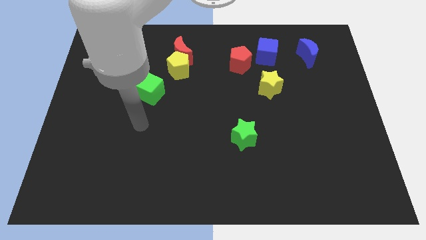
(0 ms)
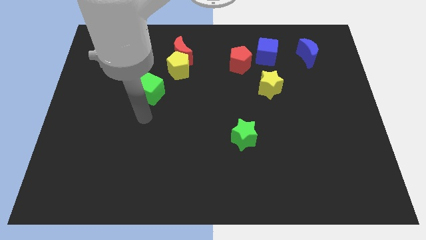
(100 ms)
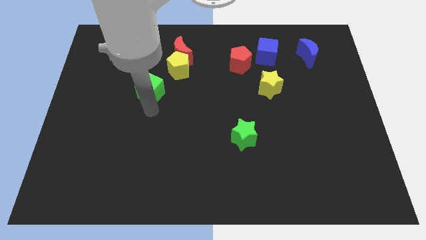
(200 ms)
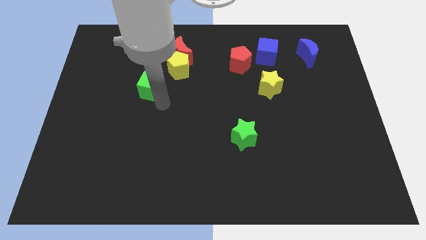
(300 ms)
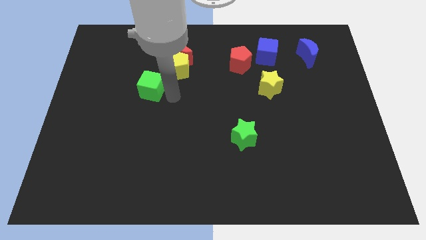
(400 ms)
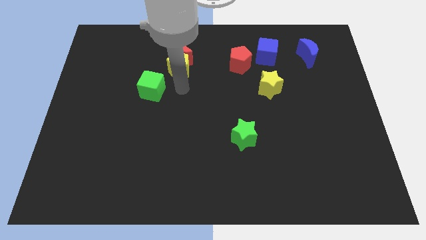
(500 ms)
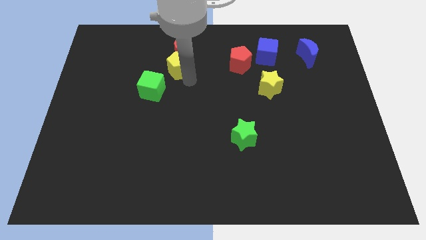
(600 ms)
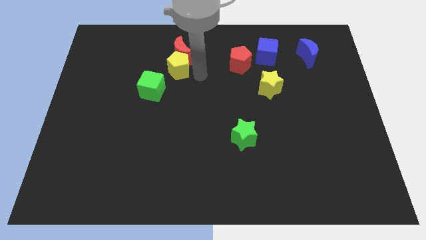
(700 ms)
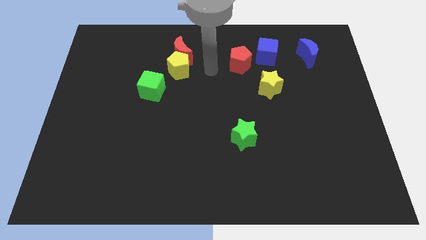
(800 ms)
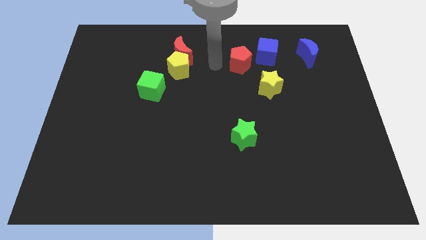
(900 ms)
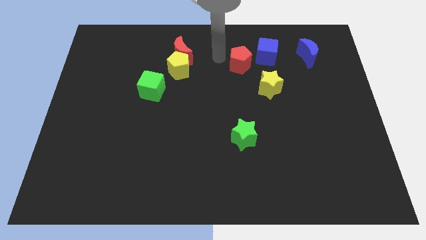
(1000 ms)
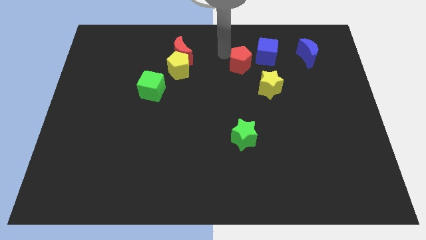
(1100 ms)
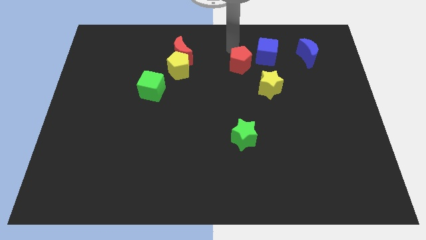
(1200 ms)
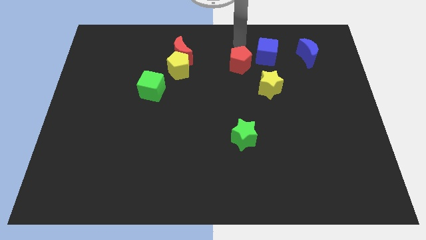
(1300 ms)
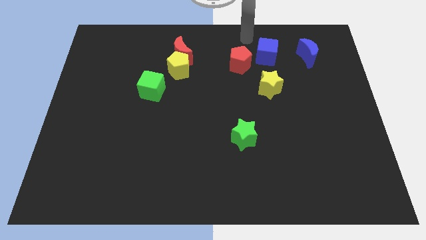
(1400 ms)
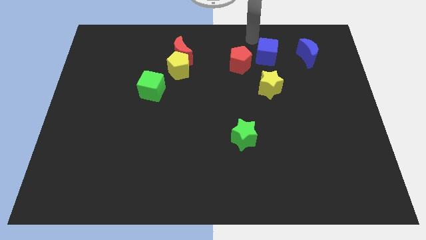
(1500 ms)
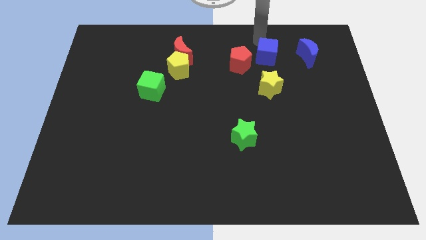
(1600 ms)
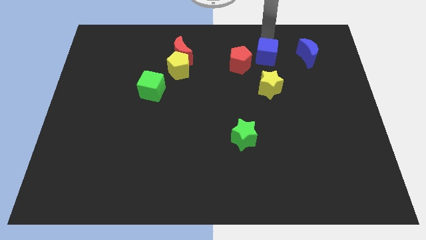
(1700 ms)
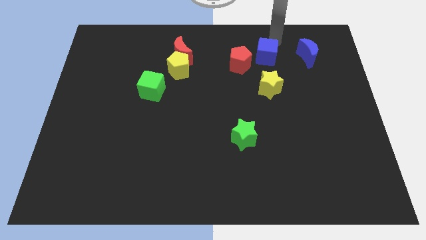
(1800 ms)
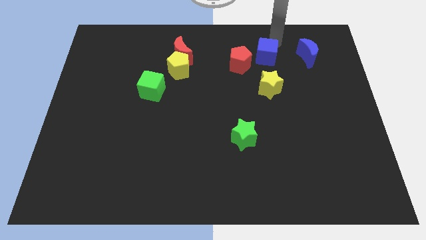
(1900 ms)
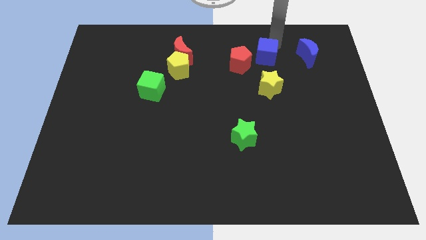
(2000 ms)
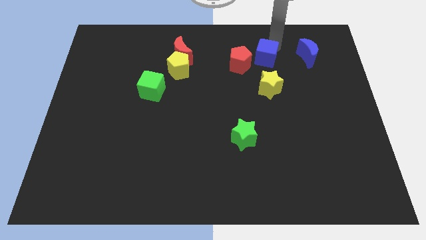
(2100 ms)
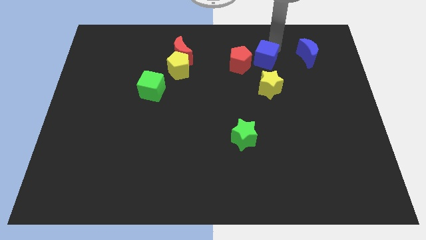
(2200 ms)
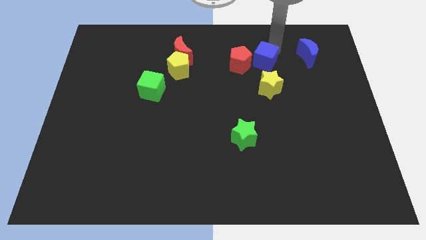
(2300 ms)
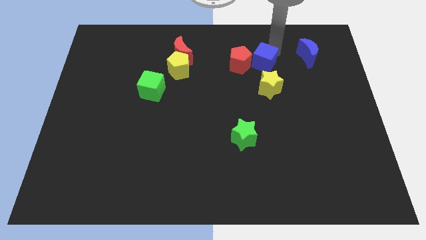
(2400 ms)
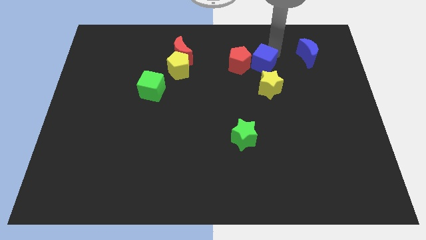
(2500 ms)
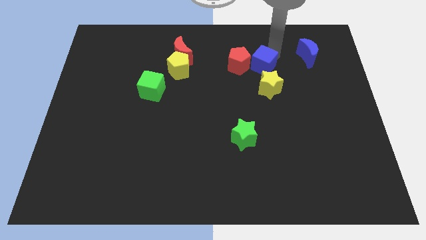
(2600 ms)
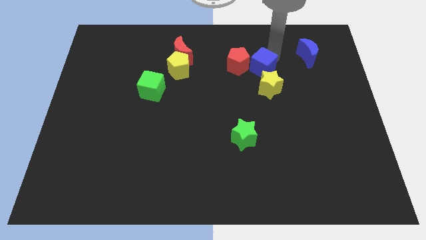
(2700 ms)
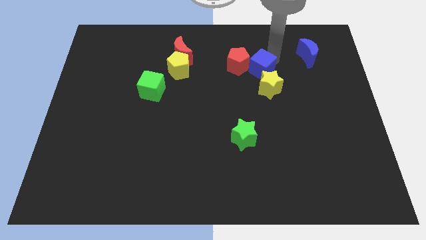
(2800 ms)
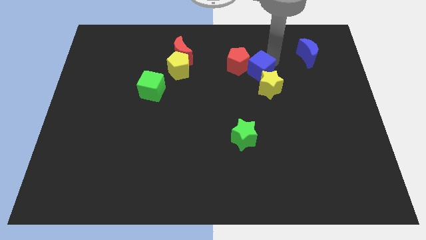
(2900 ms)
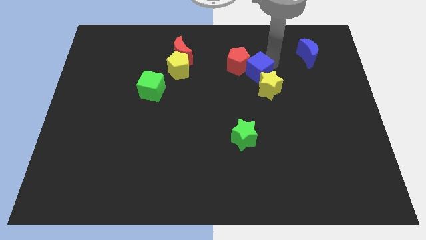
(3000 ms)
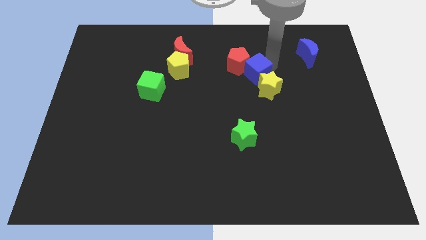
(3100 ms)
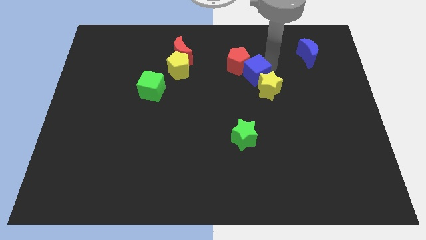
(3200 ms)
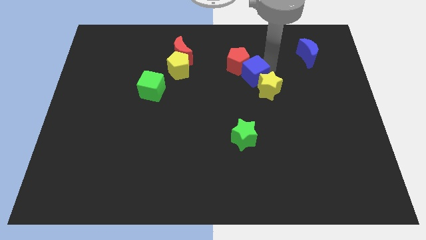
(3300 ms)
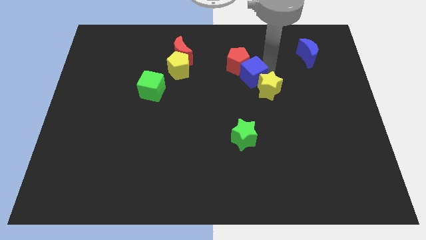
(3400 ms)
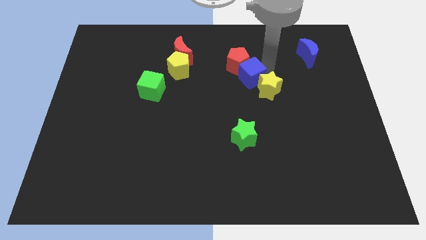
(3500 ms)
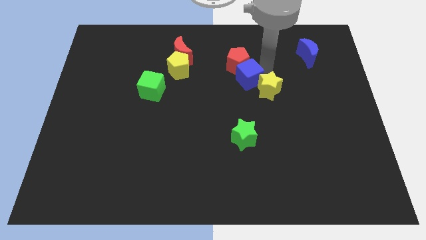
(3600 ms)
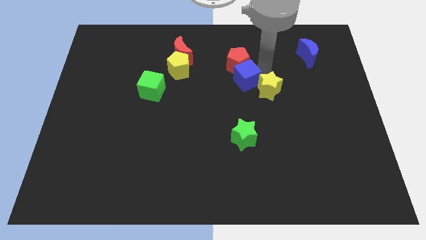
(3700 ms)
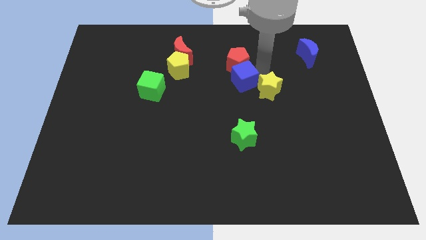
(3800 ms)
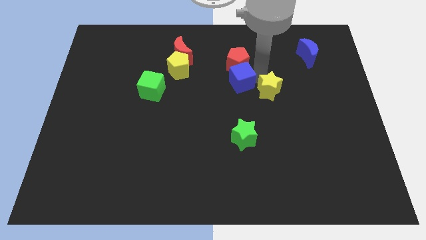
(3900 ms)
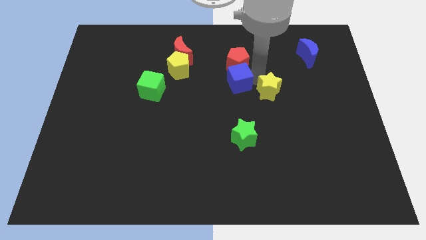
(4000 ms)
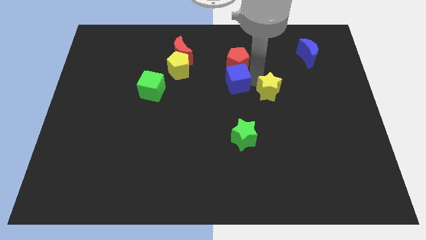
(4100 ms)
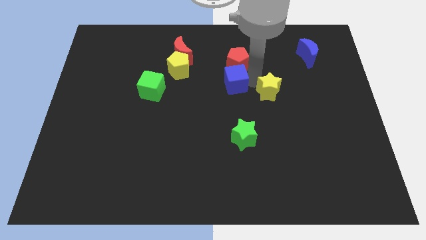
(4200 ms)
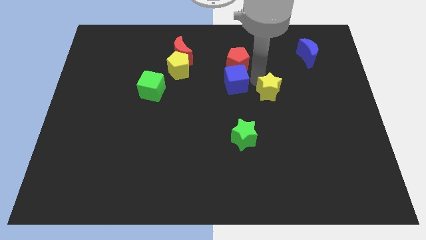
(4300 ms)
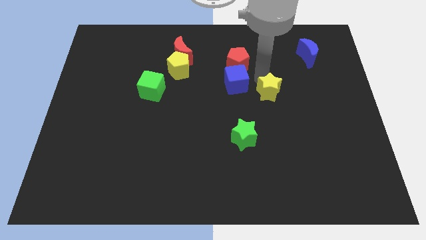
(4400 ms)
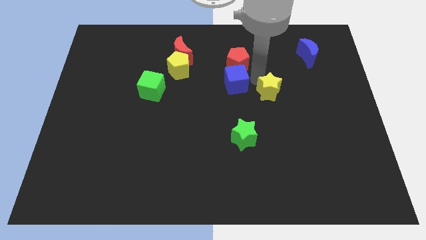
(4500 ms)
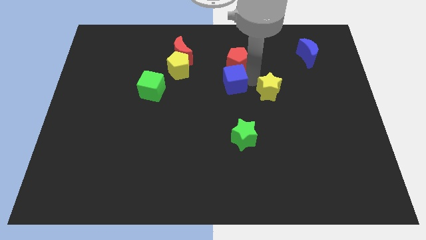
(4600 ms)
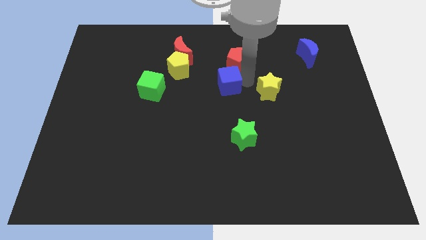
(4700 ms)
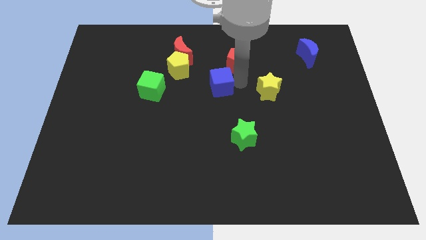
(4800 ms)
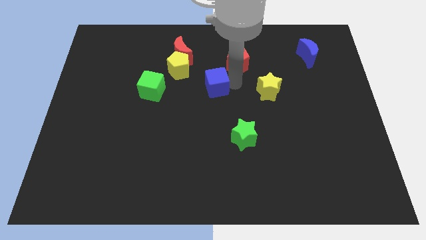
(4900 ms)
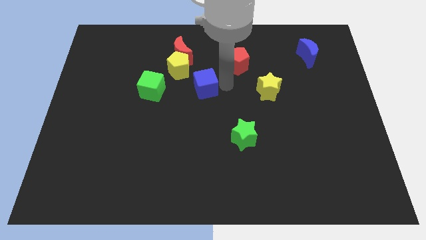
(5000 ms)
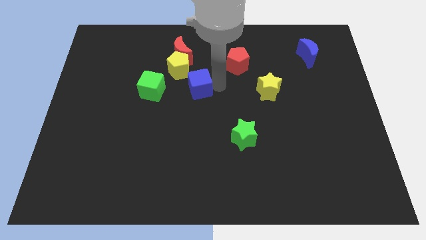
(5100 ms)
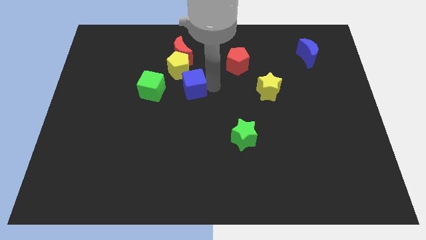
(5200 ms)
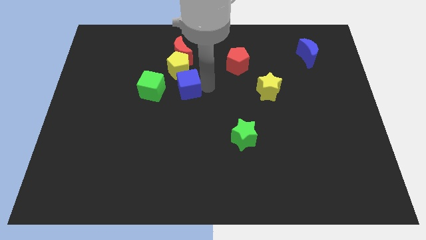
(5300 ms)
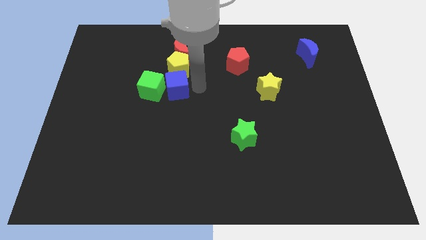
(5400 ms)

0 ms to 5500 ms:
move the blue cube towards the green cube

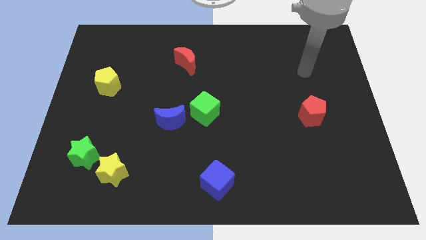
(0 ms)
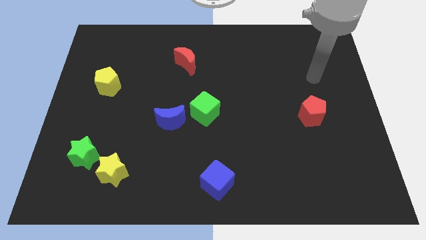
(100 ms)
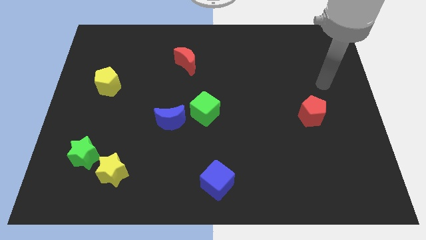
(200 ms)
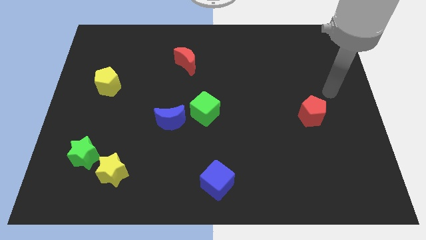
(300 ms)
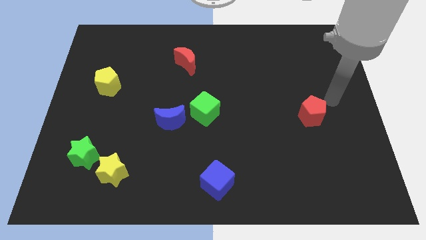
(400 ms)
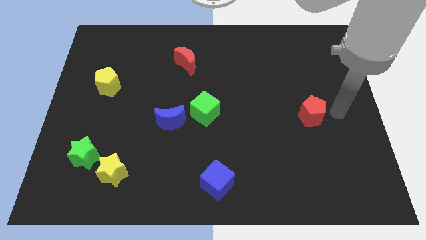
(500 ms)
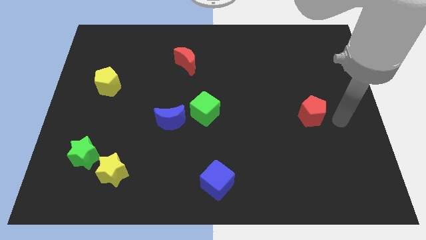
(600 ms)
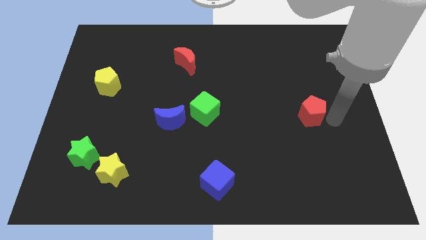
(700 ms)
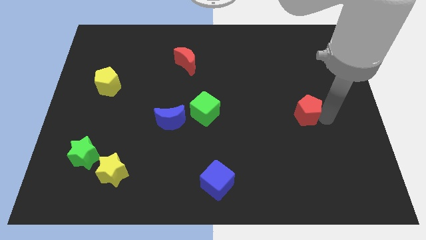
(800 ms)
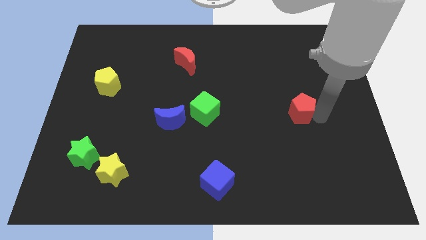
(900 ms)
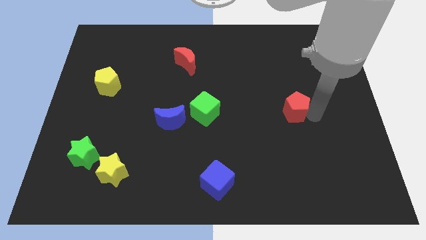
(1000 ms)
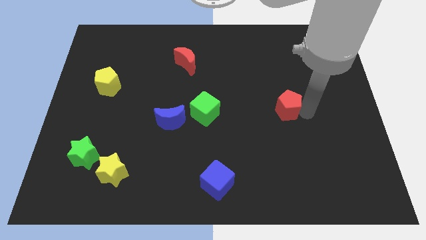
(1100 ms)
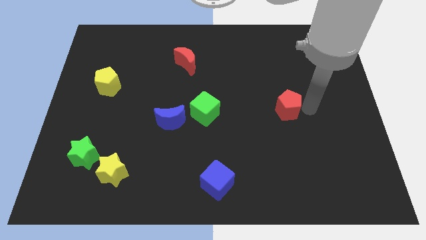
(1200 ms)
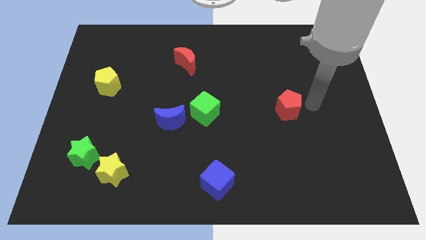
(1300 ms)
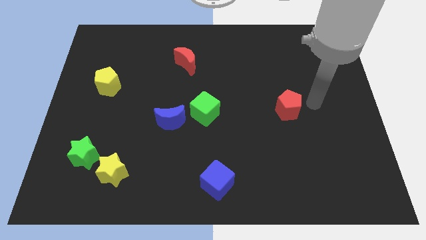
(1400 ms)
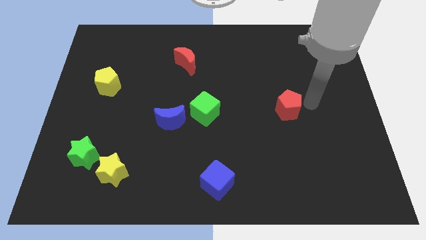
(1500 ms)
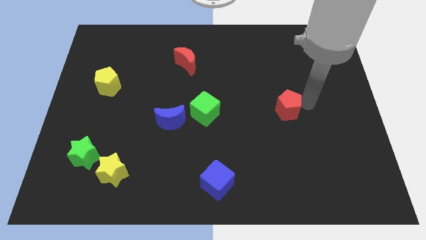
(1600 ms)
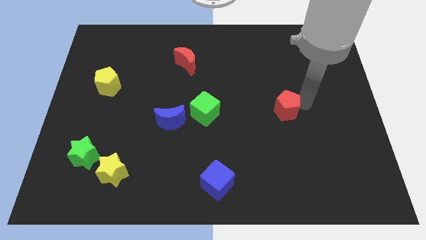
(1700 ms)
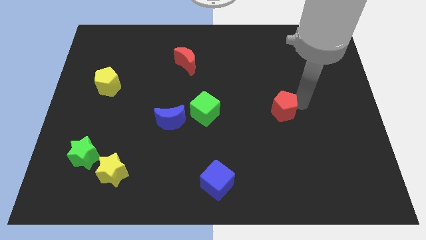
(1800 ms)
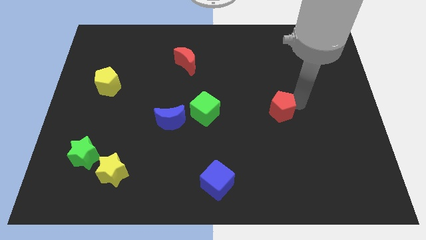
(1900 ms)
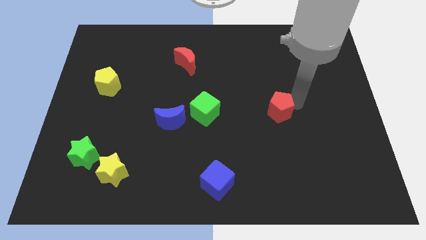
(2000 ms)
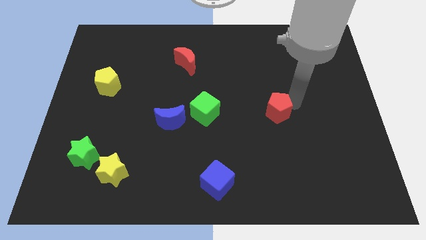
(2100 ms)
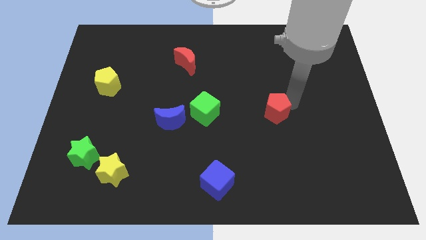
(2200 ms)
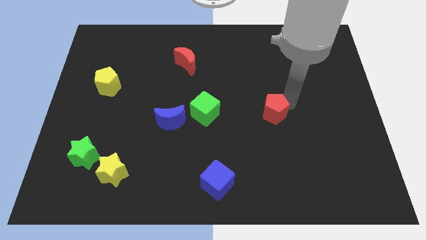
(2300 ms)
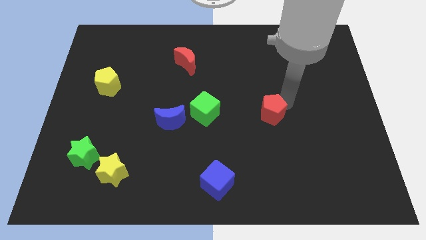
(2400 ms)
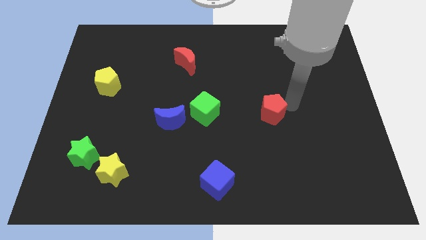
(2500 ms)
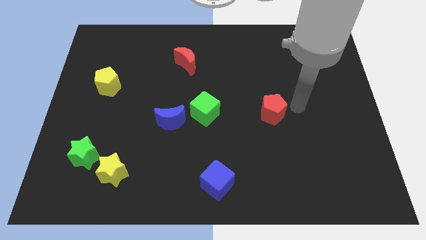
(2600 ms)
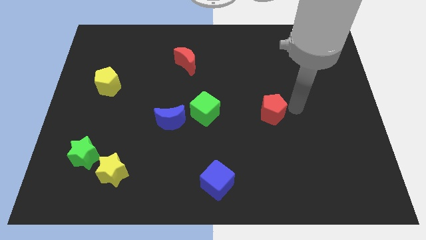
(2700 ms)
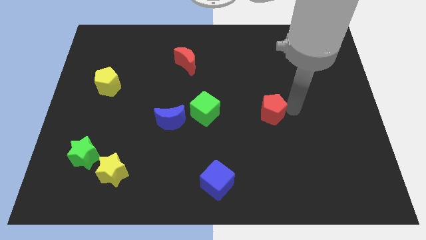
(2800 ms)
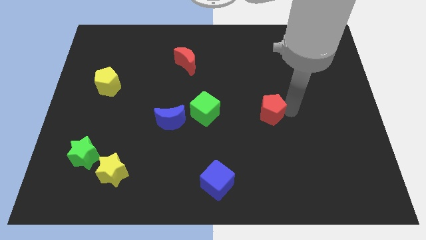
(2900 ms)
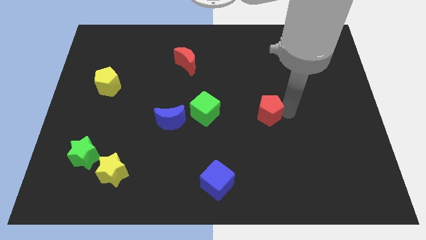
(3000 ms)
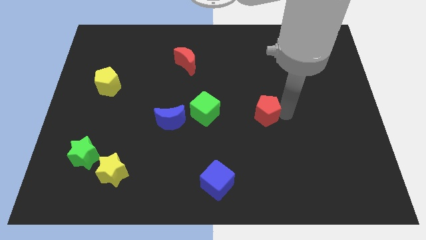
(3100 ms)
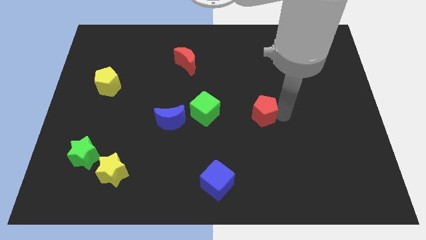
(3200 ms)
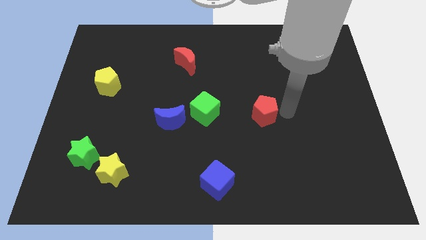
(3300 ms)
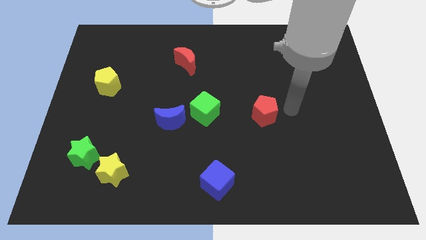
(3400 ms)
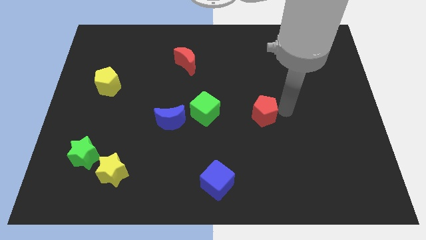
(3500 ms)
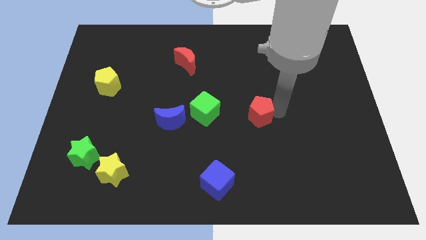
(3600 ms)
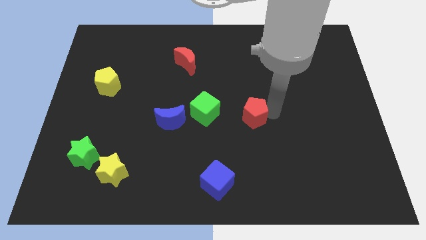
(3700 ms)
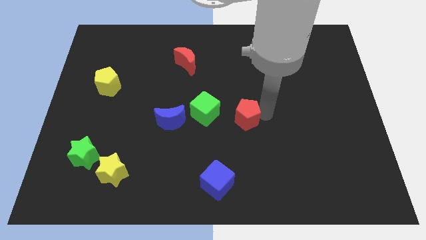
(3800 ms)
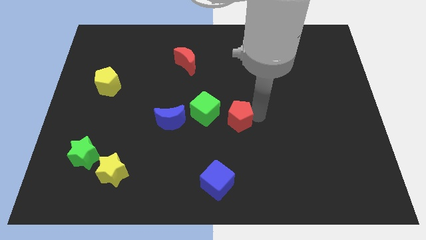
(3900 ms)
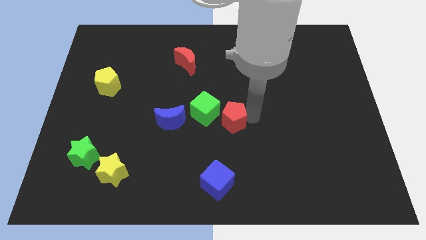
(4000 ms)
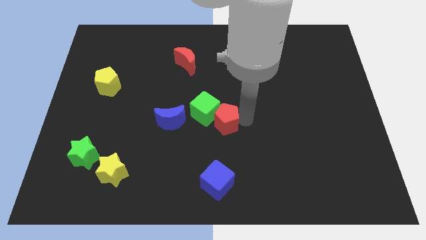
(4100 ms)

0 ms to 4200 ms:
put the red pentagon to the green cube
